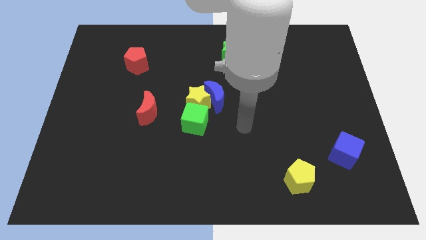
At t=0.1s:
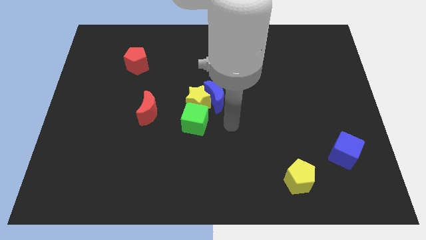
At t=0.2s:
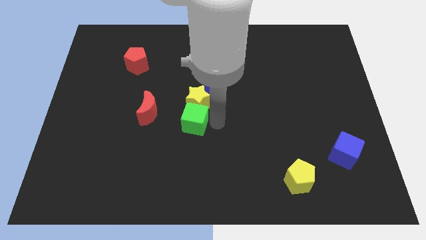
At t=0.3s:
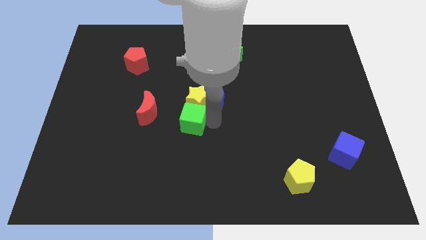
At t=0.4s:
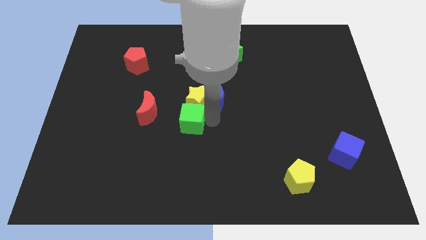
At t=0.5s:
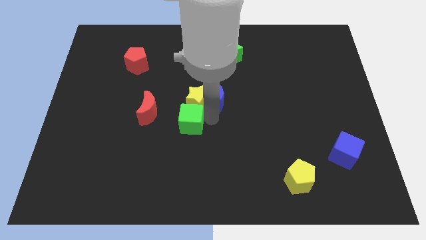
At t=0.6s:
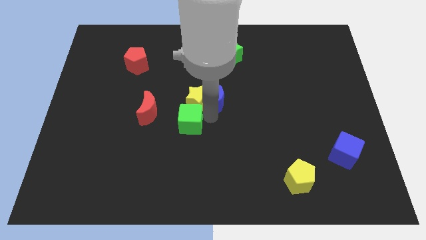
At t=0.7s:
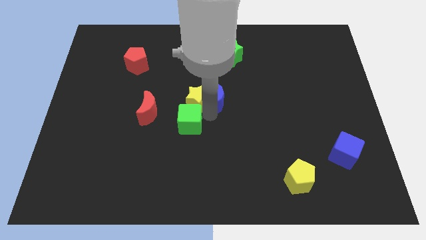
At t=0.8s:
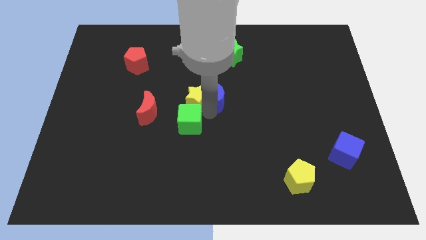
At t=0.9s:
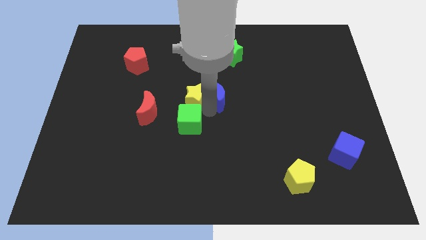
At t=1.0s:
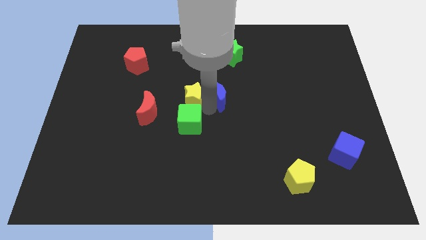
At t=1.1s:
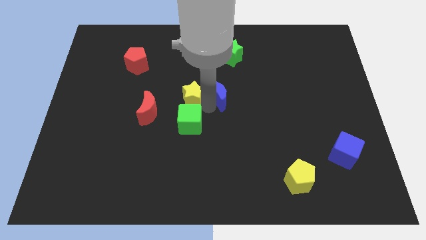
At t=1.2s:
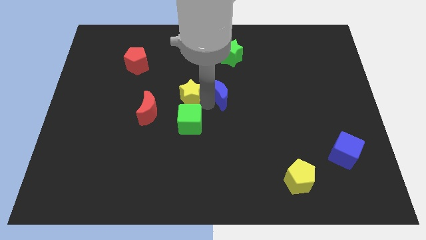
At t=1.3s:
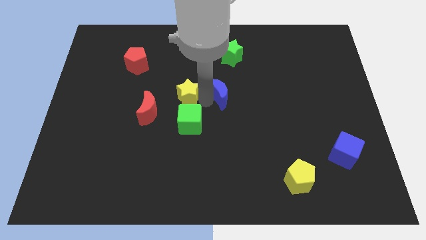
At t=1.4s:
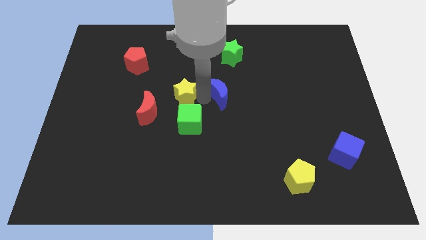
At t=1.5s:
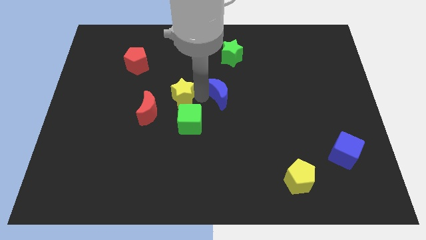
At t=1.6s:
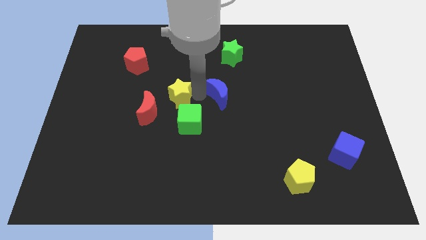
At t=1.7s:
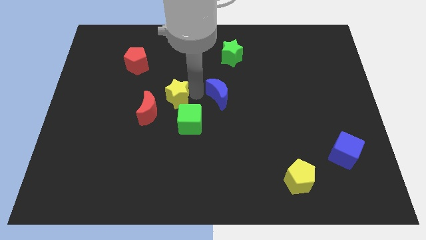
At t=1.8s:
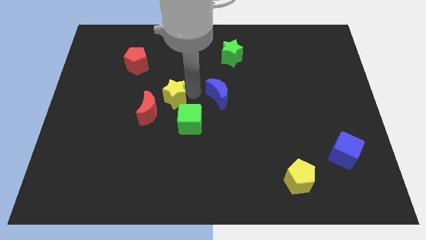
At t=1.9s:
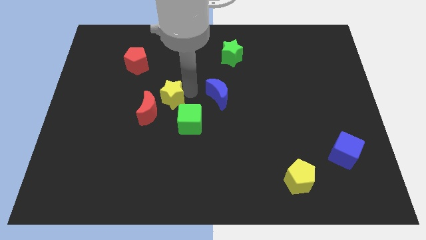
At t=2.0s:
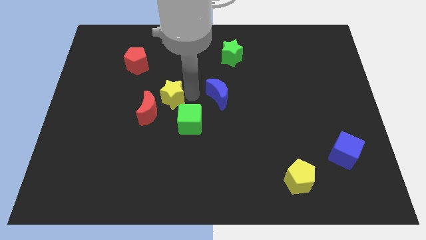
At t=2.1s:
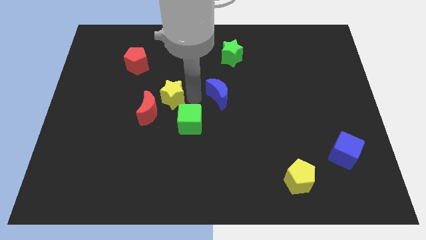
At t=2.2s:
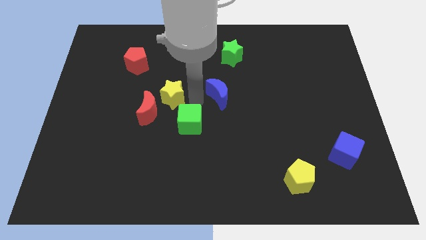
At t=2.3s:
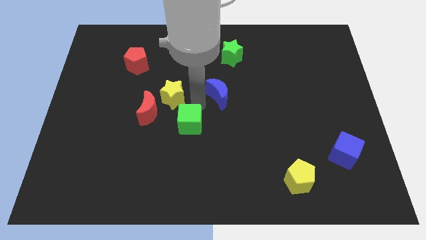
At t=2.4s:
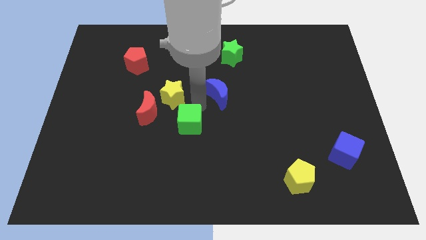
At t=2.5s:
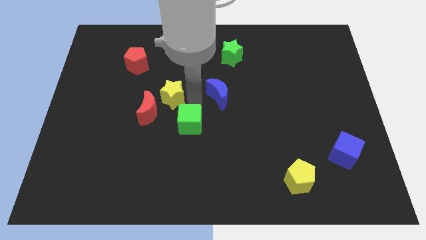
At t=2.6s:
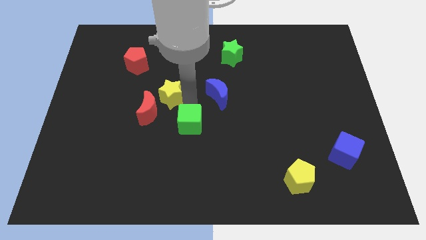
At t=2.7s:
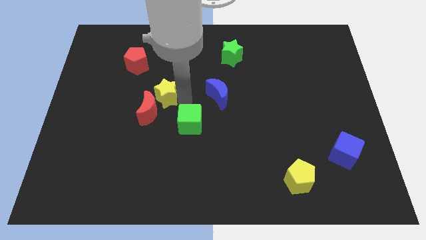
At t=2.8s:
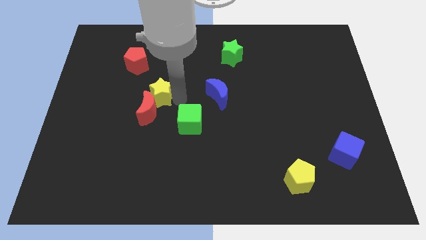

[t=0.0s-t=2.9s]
move the yellow star away from the blue moon and green cube

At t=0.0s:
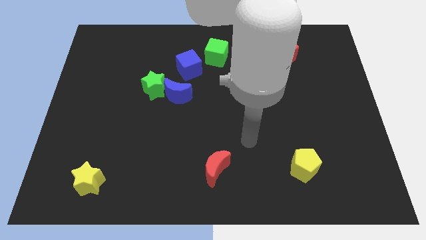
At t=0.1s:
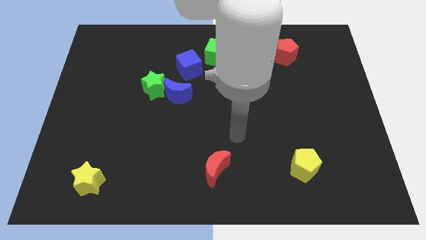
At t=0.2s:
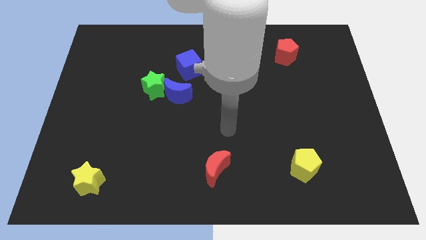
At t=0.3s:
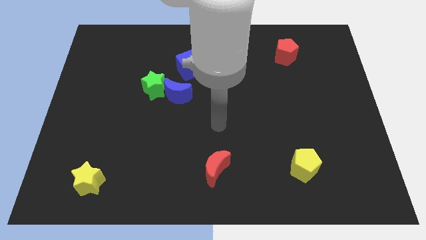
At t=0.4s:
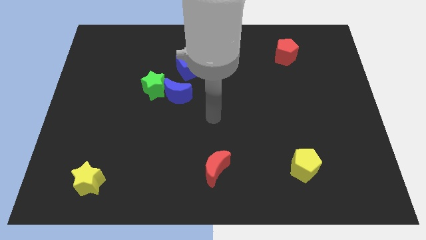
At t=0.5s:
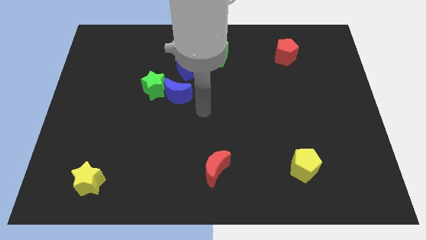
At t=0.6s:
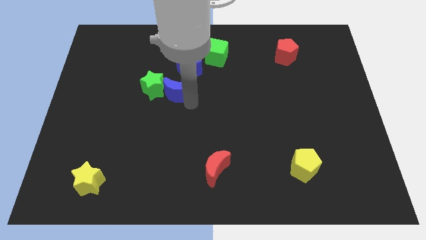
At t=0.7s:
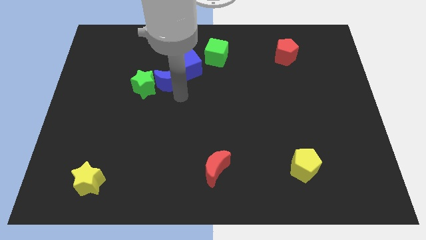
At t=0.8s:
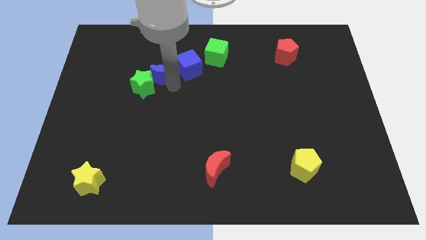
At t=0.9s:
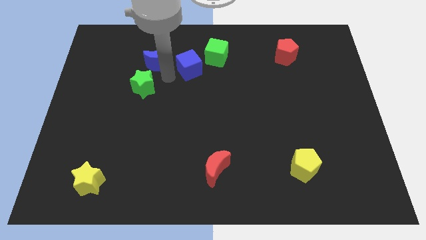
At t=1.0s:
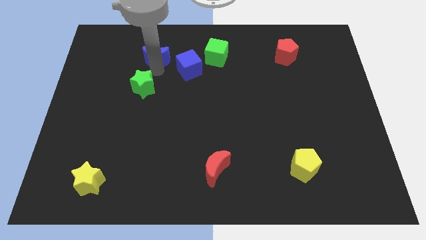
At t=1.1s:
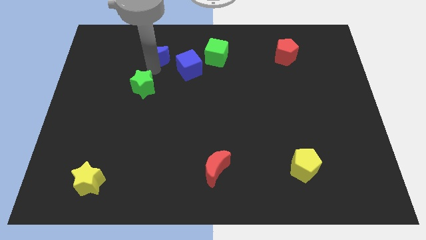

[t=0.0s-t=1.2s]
pull the green star apart from the blue moon

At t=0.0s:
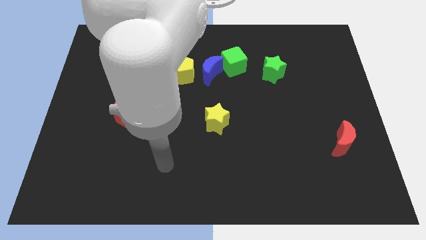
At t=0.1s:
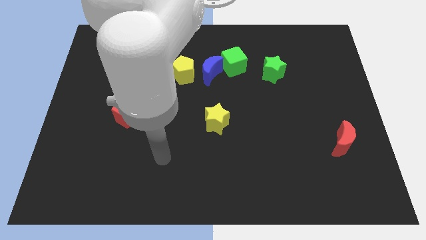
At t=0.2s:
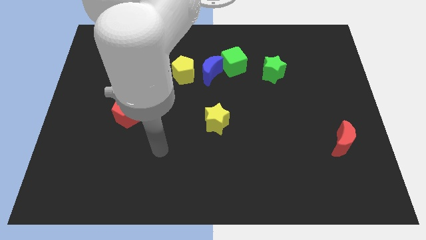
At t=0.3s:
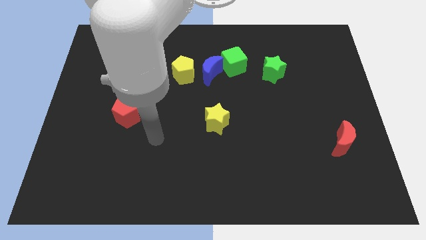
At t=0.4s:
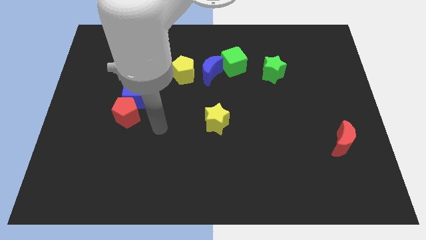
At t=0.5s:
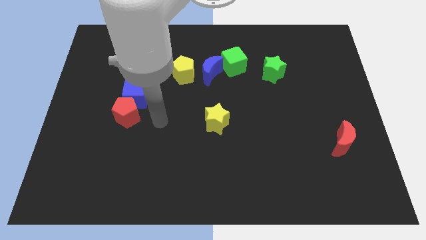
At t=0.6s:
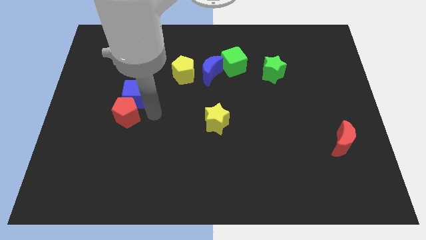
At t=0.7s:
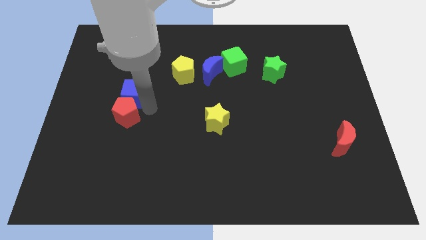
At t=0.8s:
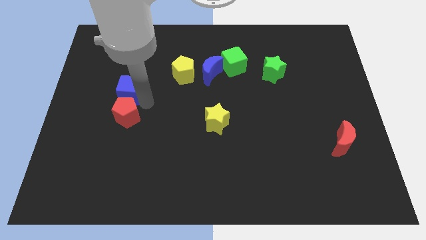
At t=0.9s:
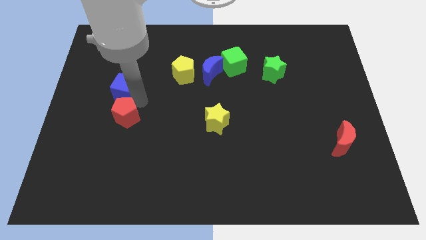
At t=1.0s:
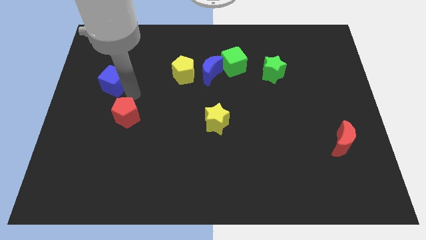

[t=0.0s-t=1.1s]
separate the red pentagon from the blue cube

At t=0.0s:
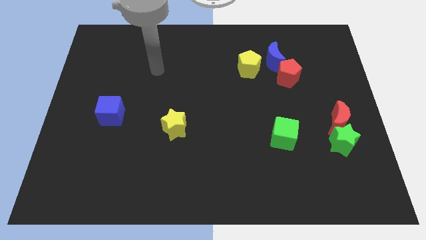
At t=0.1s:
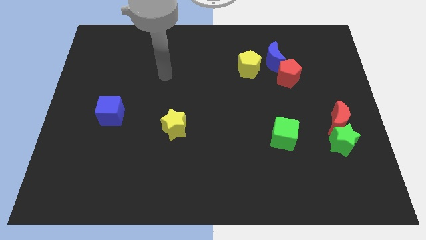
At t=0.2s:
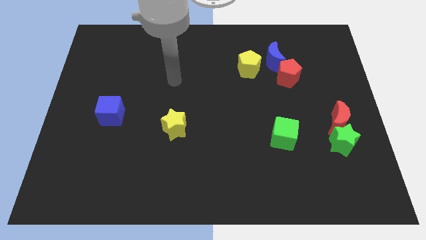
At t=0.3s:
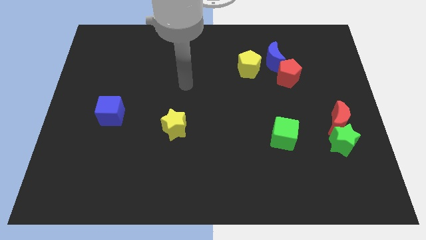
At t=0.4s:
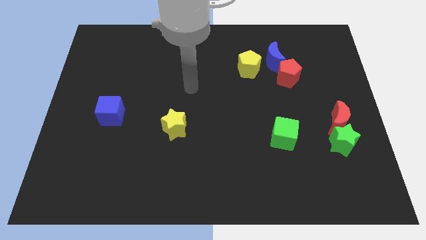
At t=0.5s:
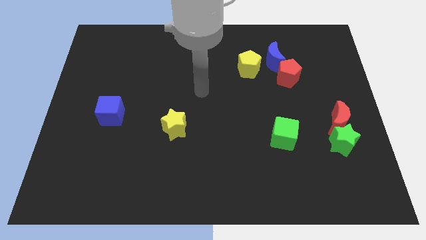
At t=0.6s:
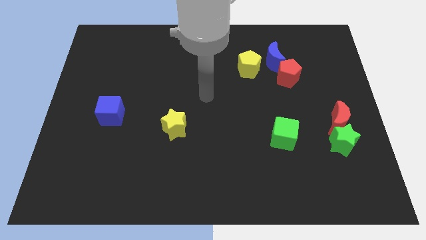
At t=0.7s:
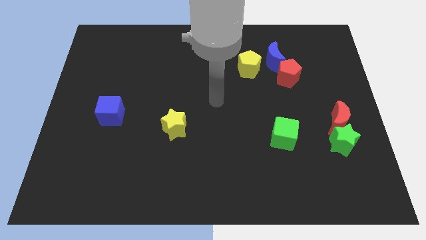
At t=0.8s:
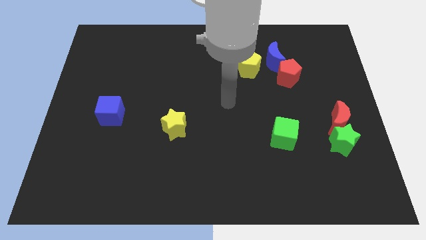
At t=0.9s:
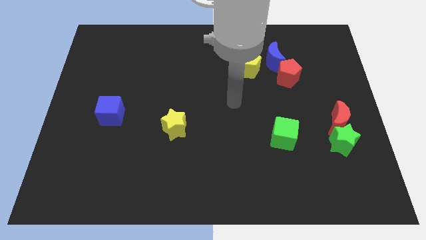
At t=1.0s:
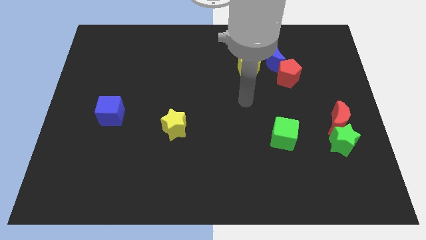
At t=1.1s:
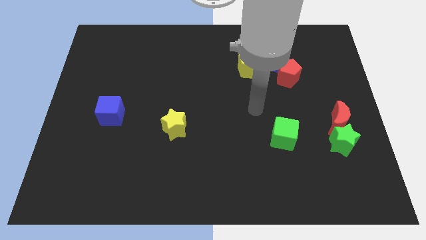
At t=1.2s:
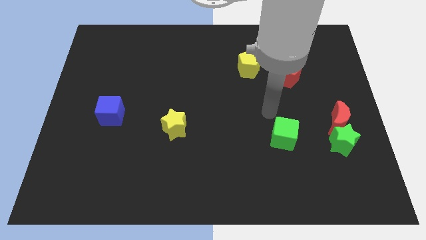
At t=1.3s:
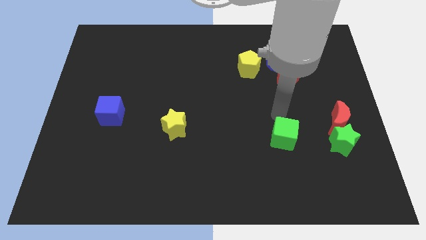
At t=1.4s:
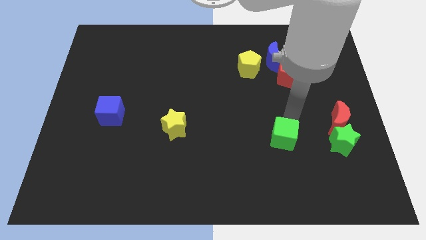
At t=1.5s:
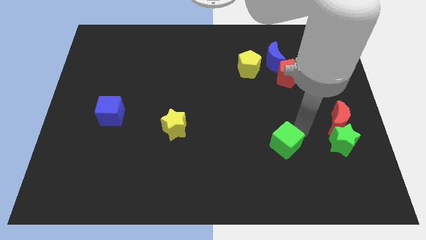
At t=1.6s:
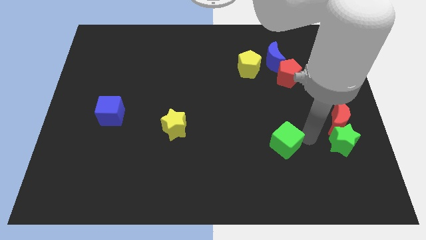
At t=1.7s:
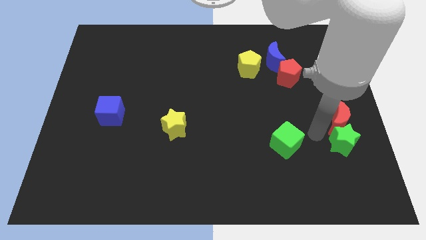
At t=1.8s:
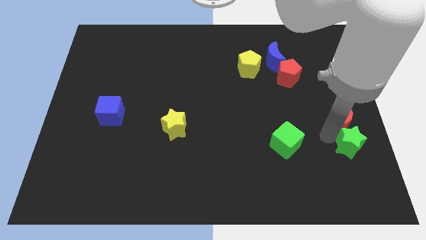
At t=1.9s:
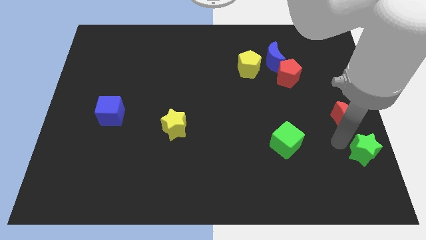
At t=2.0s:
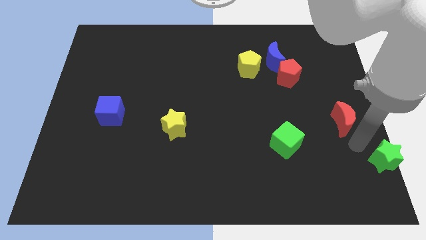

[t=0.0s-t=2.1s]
pull the red moon apart from the green star

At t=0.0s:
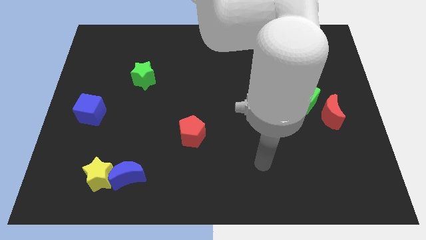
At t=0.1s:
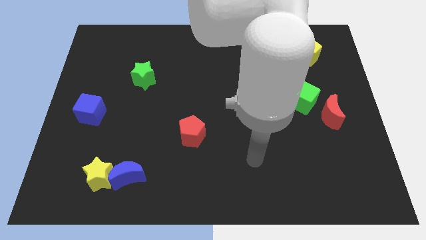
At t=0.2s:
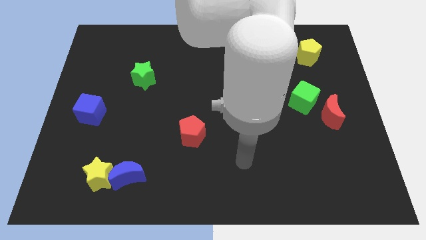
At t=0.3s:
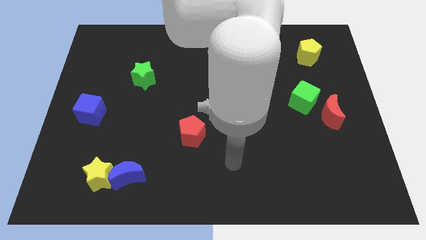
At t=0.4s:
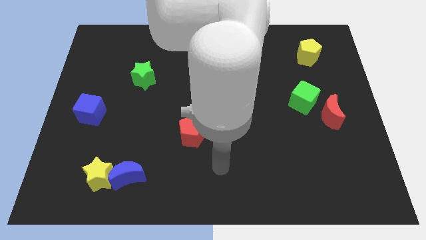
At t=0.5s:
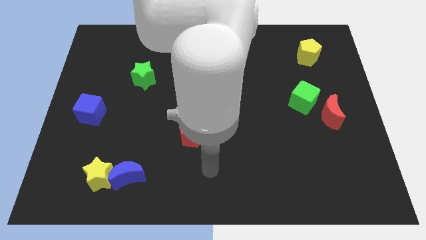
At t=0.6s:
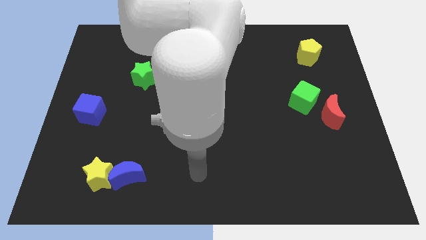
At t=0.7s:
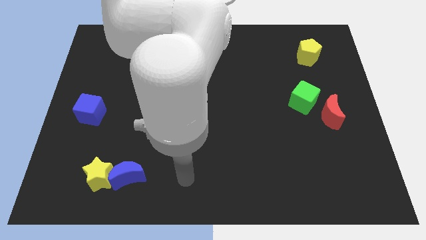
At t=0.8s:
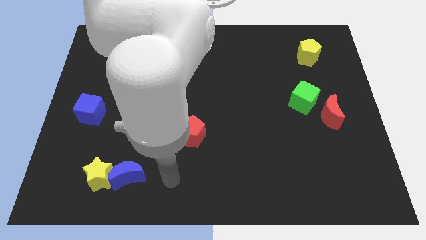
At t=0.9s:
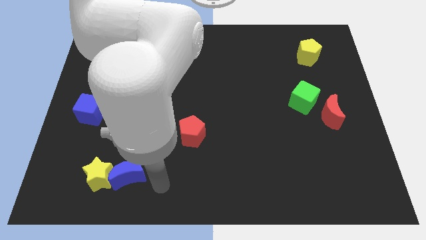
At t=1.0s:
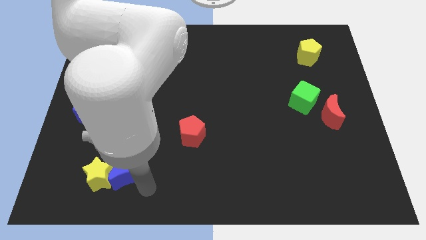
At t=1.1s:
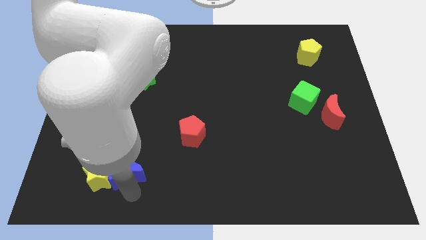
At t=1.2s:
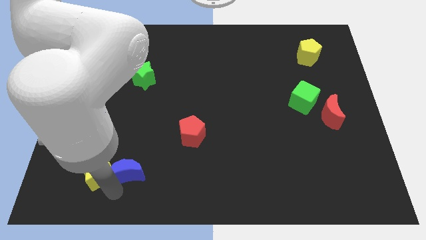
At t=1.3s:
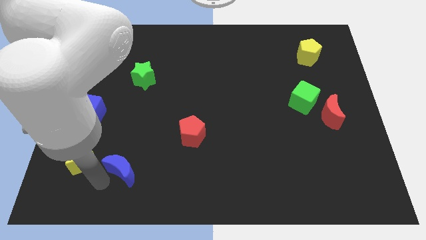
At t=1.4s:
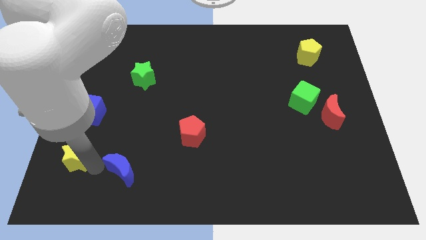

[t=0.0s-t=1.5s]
separate the blue moon from the yellow star

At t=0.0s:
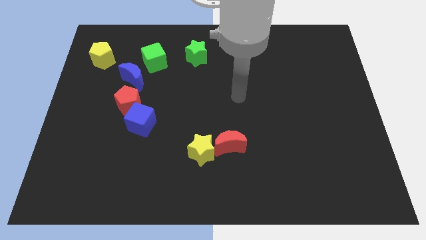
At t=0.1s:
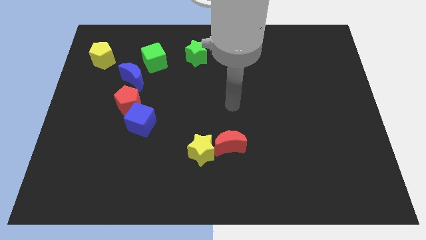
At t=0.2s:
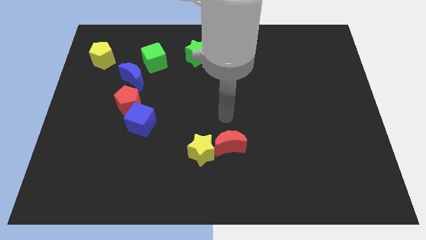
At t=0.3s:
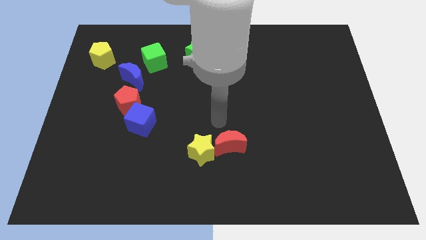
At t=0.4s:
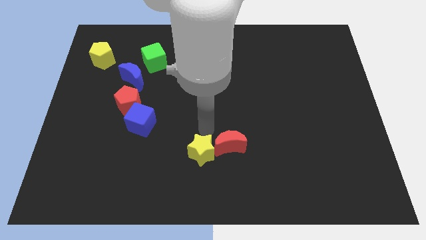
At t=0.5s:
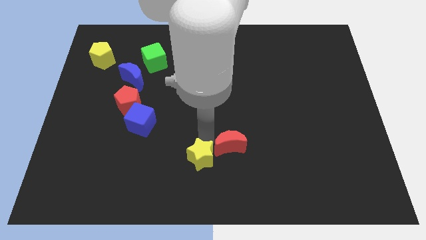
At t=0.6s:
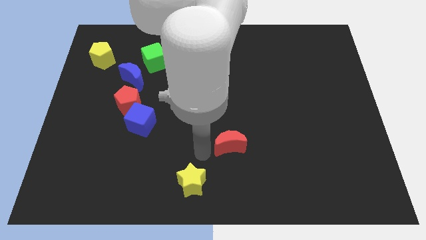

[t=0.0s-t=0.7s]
pull the red moon apart from the yellow star

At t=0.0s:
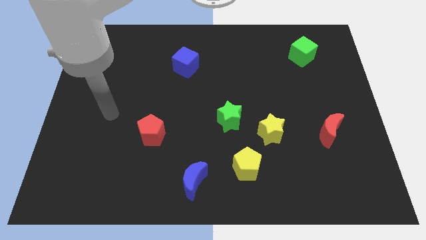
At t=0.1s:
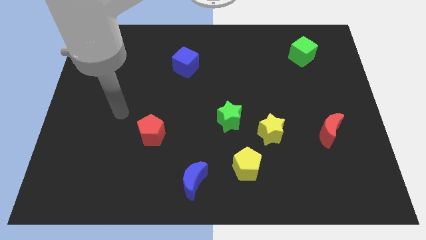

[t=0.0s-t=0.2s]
move the green star away from the yellow star
